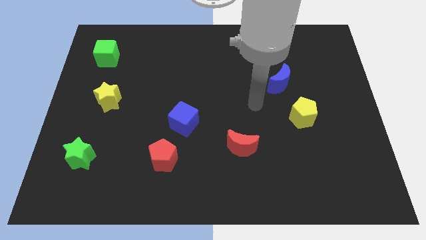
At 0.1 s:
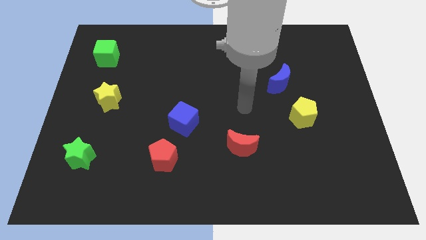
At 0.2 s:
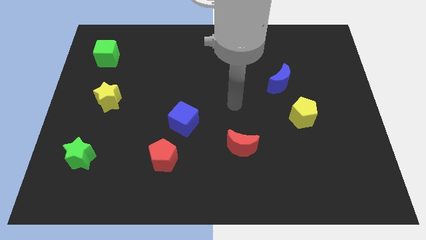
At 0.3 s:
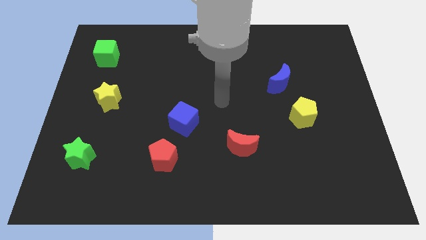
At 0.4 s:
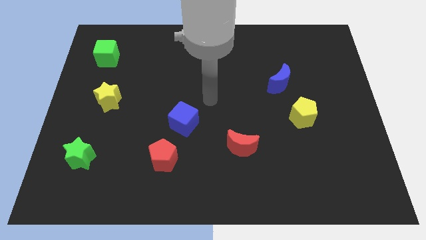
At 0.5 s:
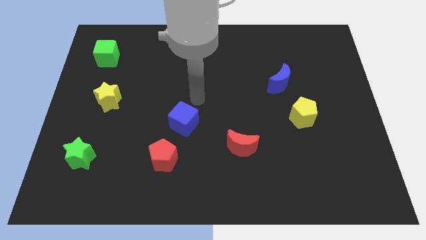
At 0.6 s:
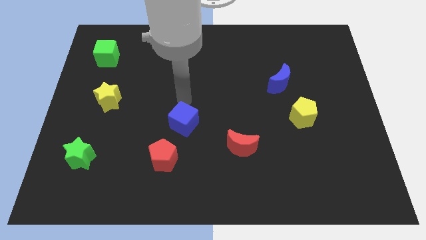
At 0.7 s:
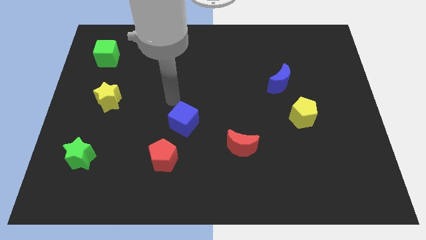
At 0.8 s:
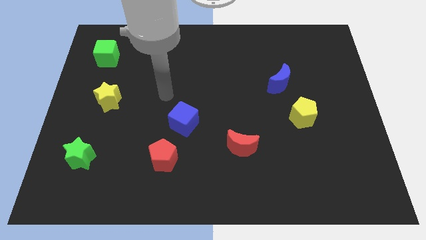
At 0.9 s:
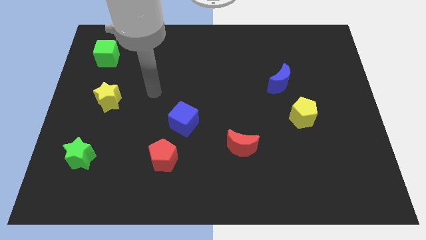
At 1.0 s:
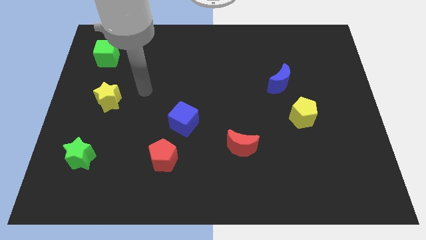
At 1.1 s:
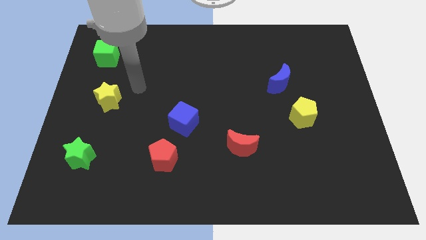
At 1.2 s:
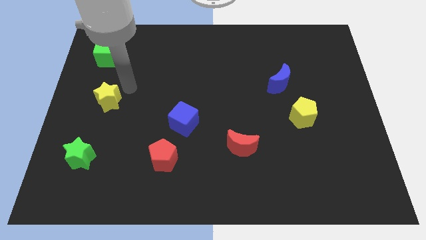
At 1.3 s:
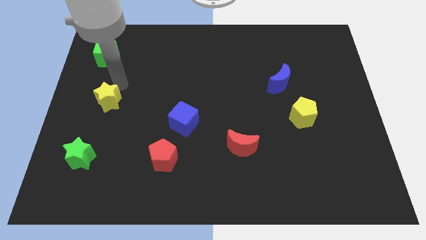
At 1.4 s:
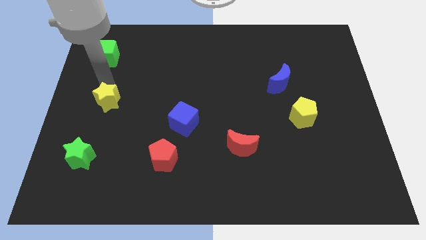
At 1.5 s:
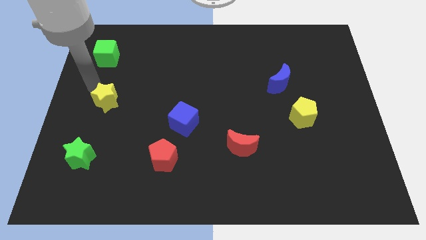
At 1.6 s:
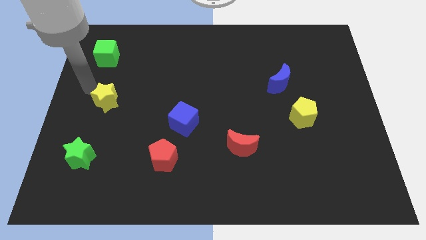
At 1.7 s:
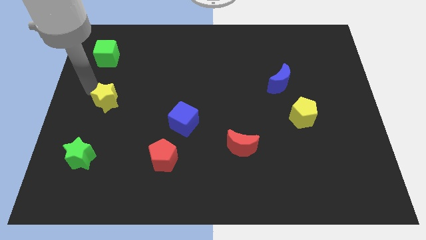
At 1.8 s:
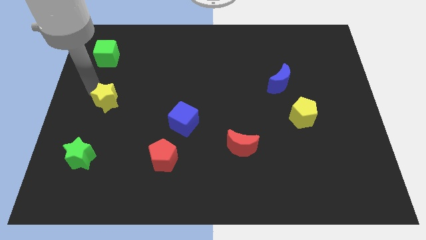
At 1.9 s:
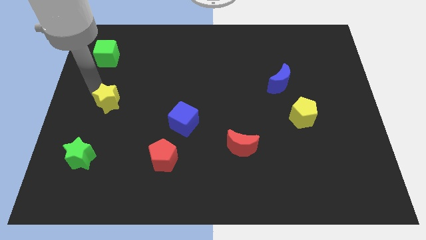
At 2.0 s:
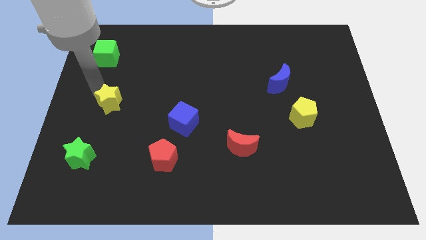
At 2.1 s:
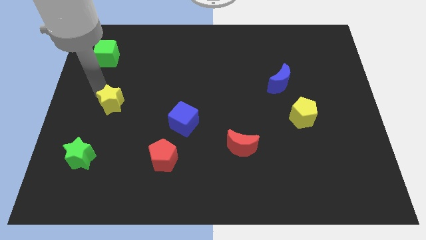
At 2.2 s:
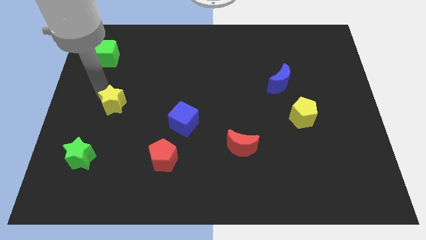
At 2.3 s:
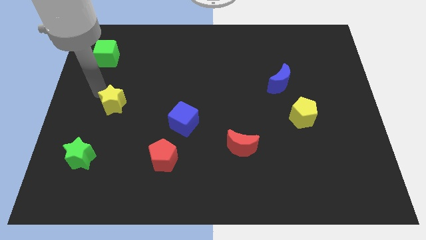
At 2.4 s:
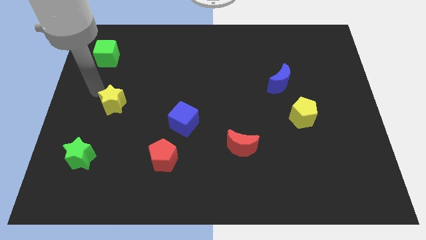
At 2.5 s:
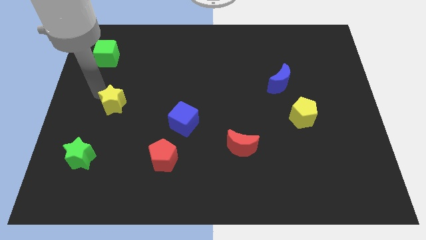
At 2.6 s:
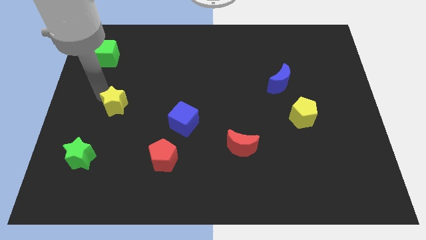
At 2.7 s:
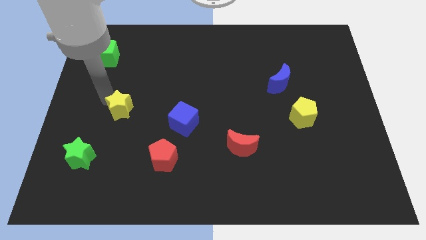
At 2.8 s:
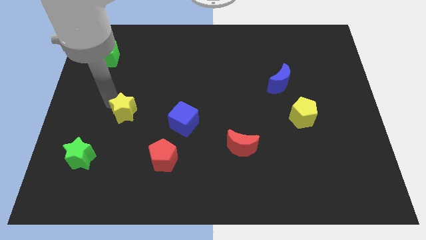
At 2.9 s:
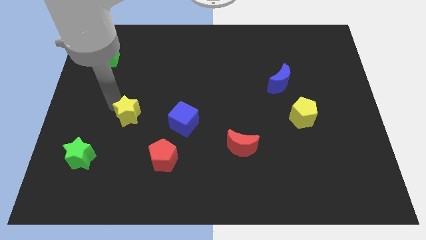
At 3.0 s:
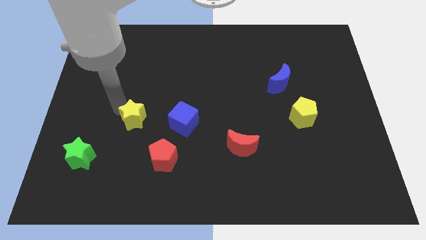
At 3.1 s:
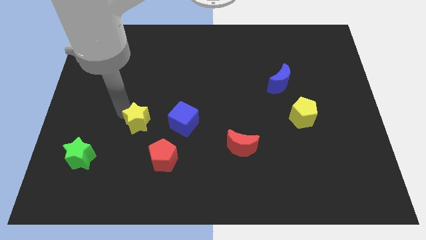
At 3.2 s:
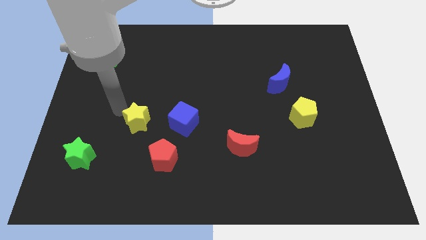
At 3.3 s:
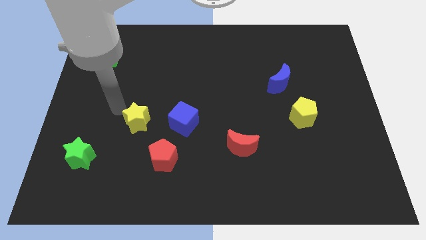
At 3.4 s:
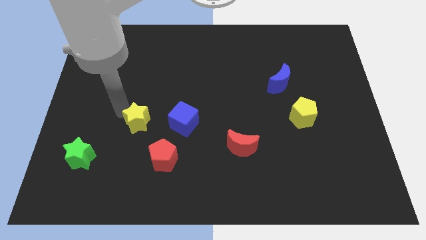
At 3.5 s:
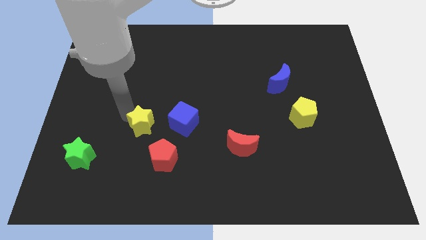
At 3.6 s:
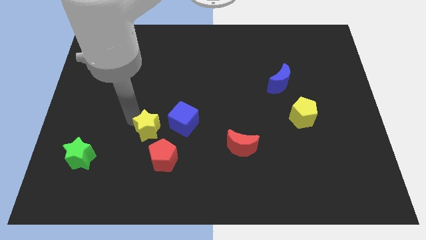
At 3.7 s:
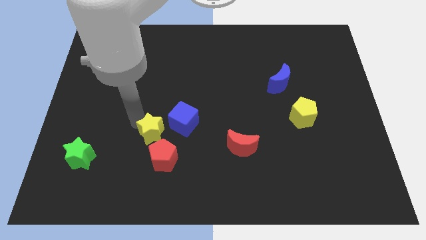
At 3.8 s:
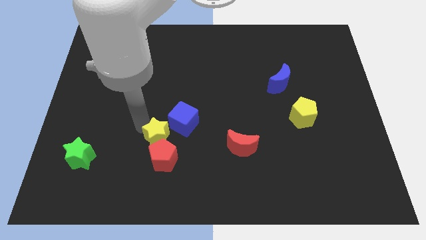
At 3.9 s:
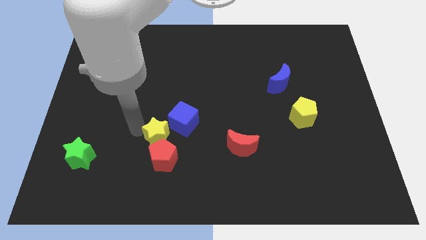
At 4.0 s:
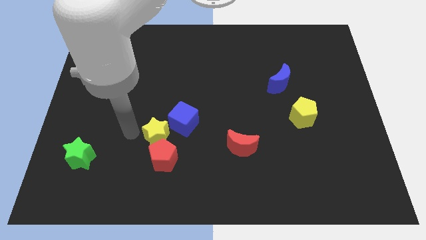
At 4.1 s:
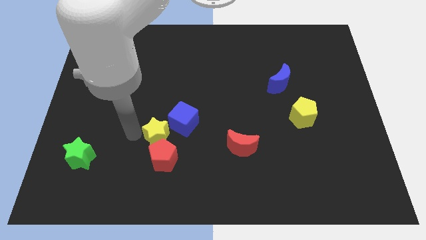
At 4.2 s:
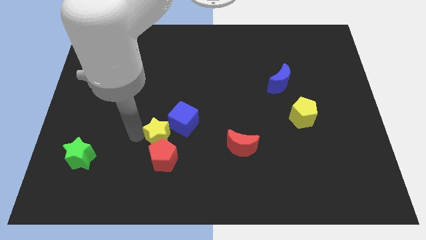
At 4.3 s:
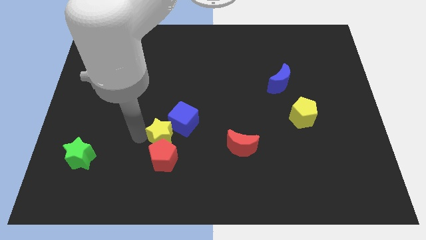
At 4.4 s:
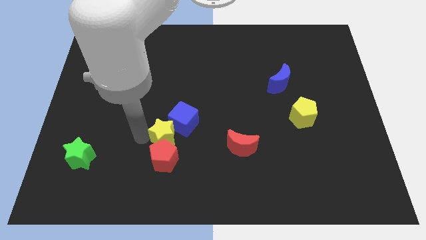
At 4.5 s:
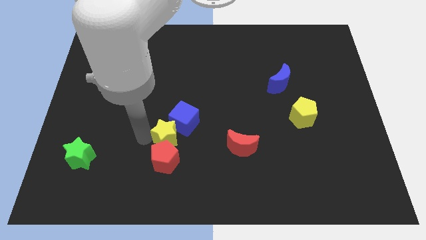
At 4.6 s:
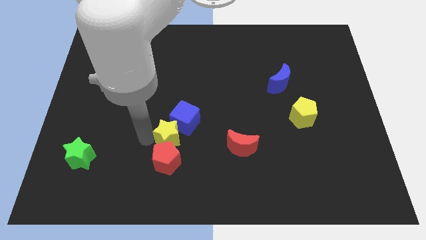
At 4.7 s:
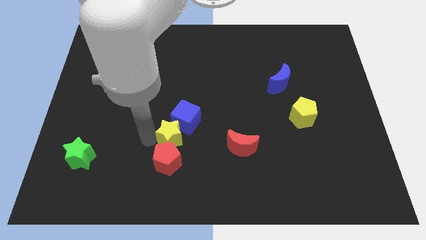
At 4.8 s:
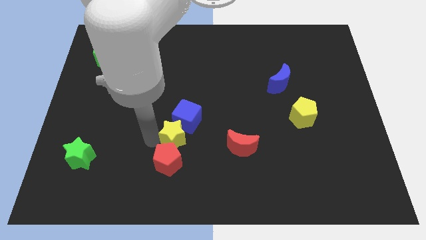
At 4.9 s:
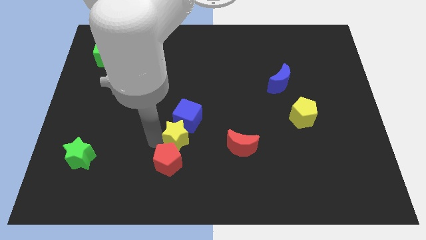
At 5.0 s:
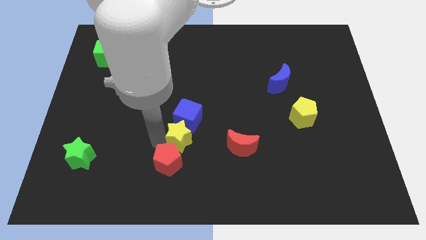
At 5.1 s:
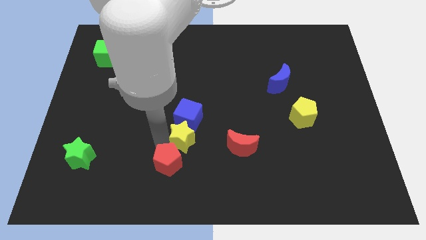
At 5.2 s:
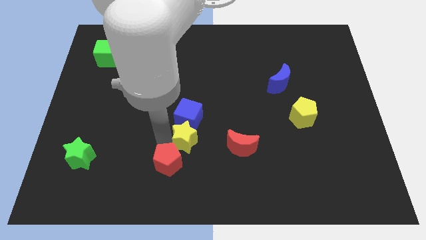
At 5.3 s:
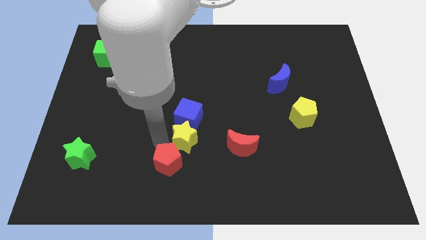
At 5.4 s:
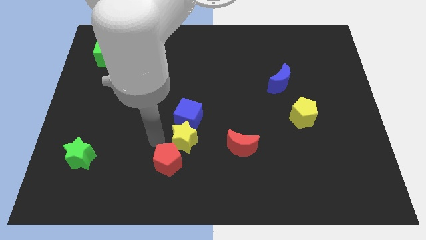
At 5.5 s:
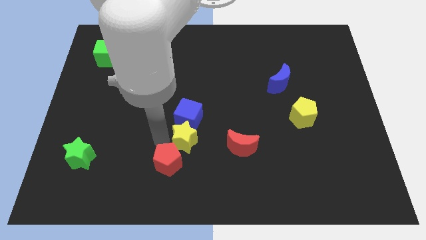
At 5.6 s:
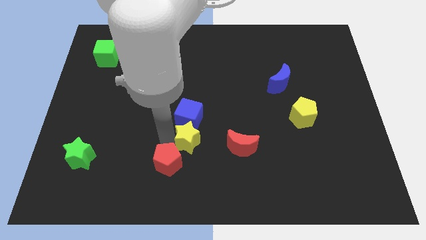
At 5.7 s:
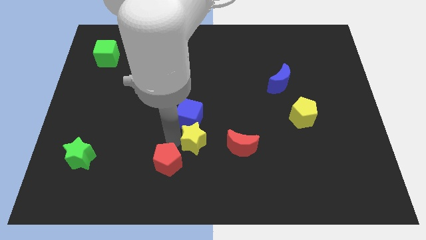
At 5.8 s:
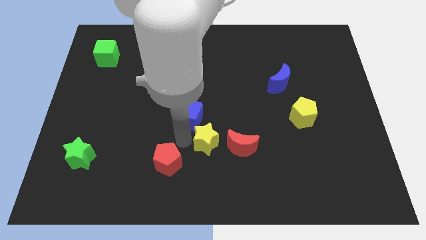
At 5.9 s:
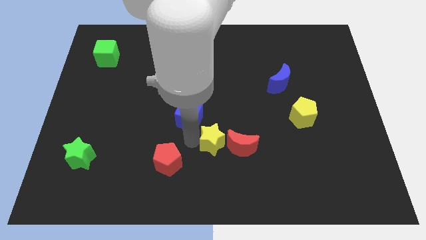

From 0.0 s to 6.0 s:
put the yellow star to the red moon

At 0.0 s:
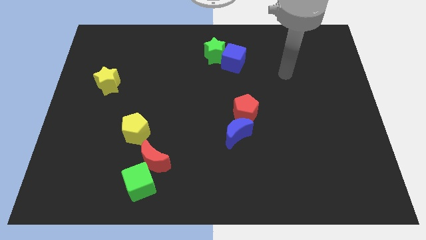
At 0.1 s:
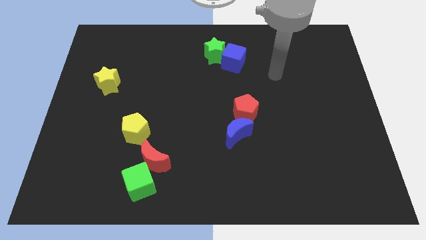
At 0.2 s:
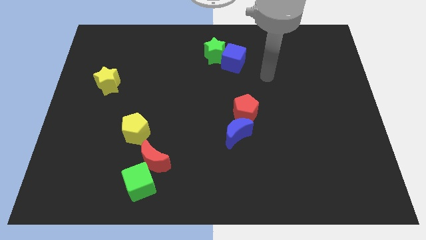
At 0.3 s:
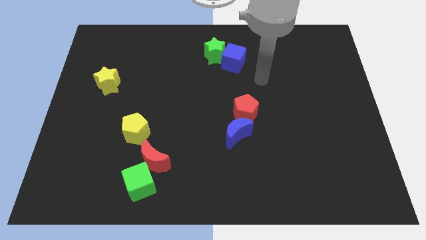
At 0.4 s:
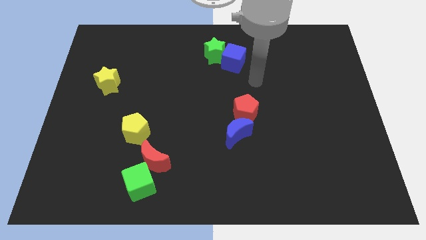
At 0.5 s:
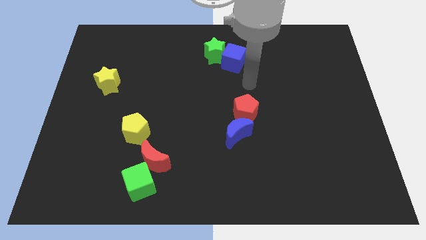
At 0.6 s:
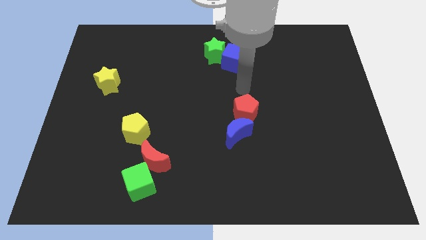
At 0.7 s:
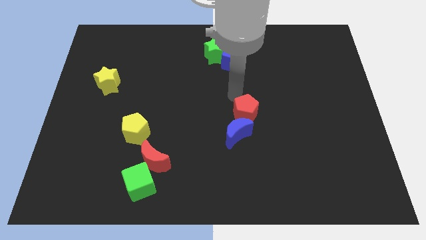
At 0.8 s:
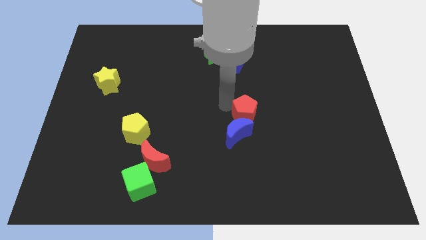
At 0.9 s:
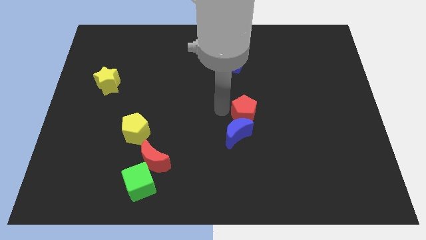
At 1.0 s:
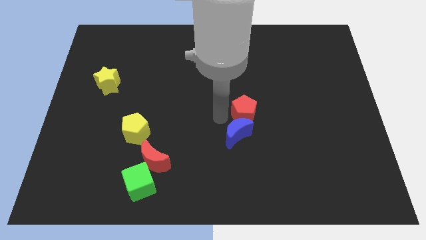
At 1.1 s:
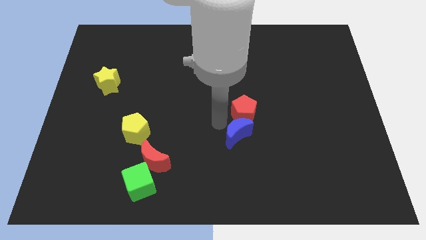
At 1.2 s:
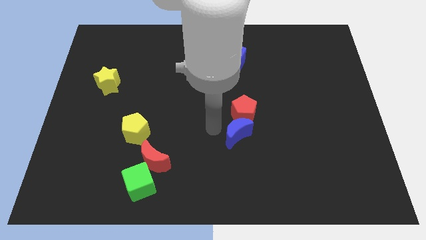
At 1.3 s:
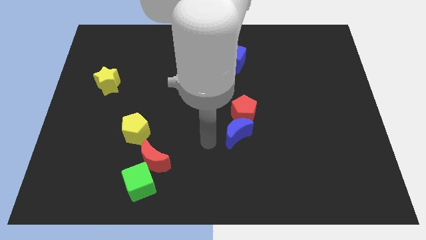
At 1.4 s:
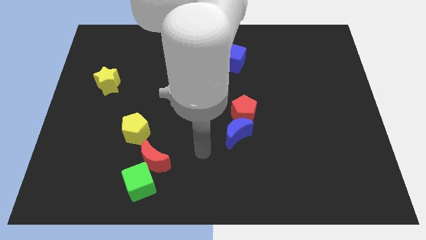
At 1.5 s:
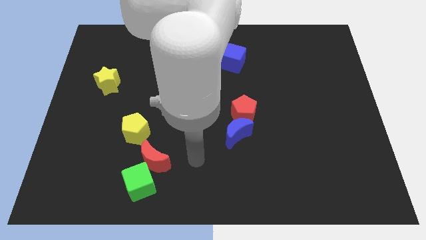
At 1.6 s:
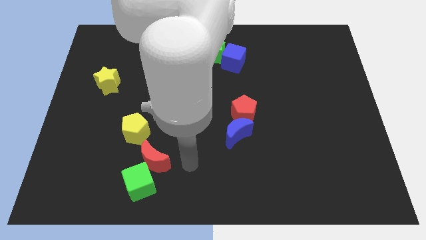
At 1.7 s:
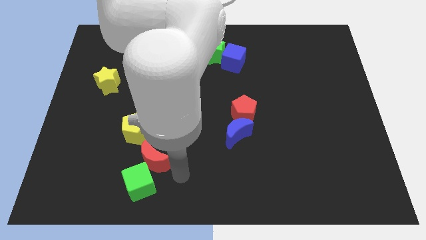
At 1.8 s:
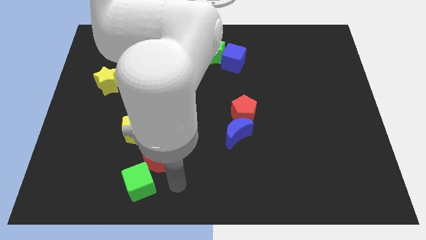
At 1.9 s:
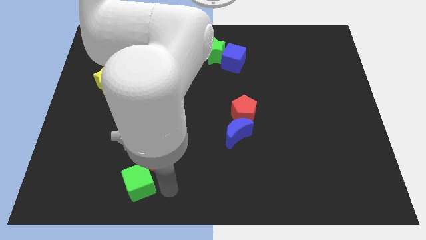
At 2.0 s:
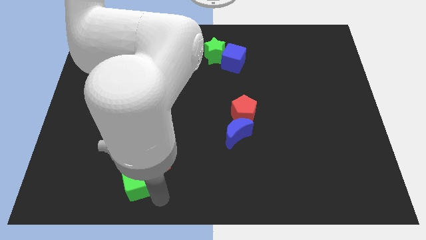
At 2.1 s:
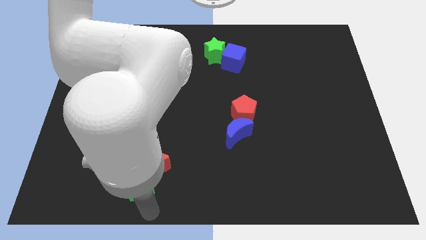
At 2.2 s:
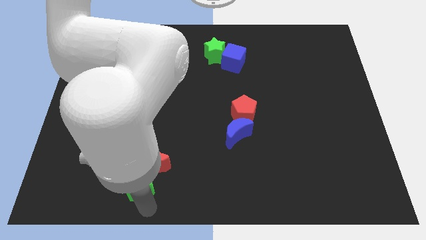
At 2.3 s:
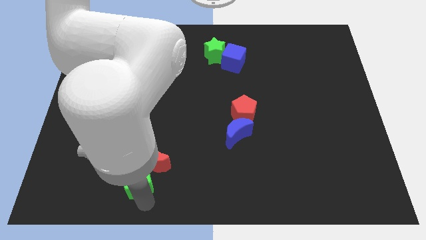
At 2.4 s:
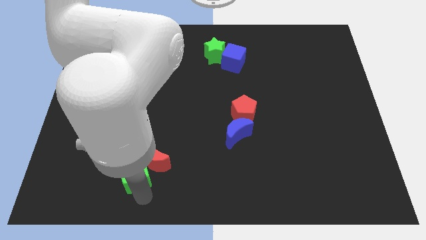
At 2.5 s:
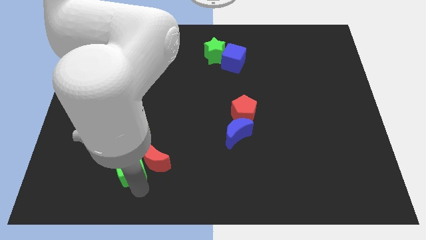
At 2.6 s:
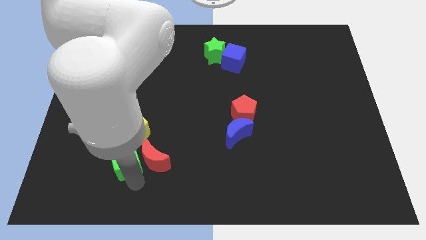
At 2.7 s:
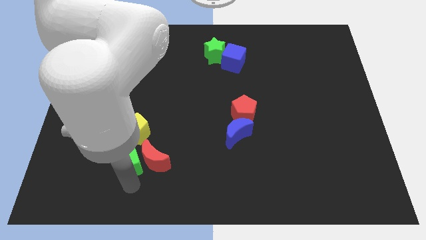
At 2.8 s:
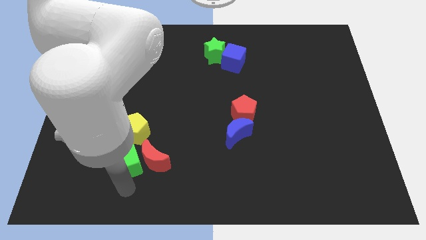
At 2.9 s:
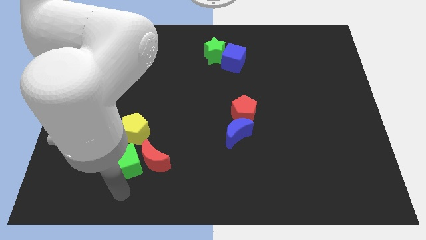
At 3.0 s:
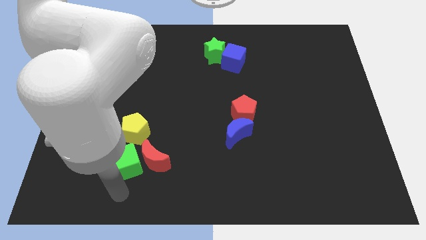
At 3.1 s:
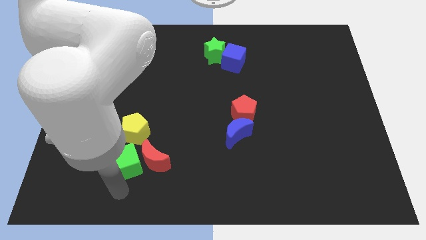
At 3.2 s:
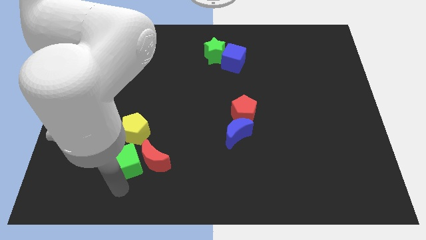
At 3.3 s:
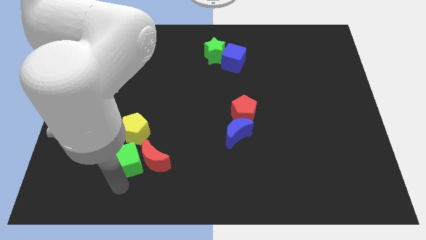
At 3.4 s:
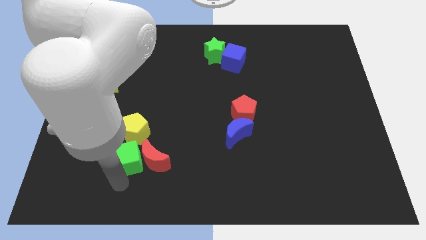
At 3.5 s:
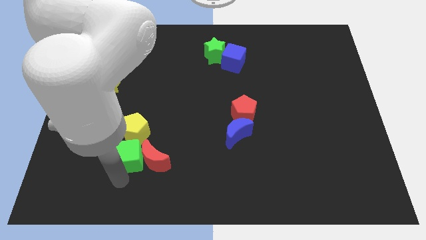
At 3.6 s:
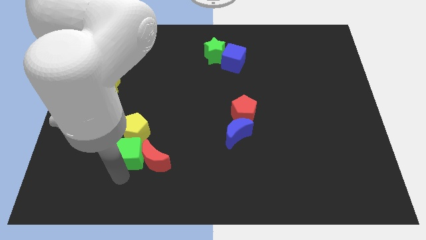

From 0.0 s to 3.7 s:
move the green cube to the yellow pentagon
